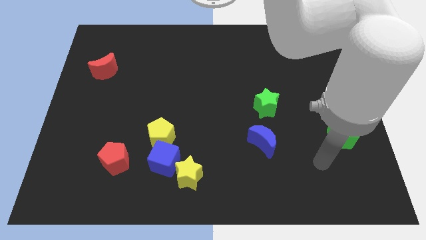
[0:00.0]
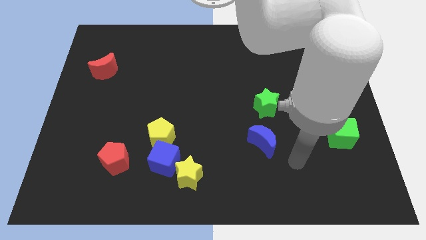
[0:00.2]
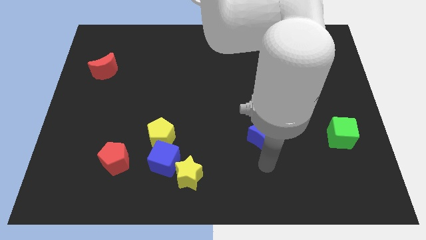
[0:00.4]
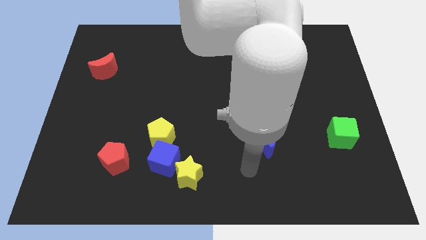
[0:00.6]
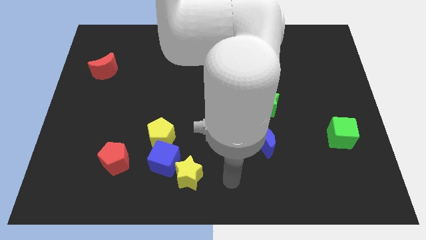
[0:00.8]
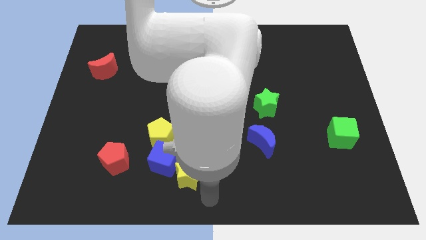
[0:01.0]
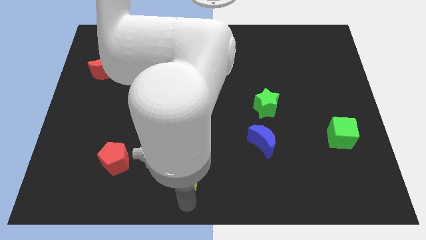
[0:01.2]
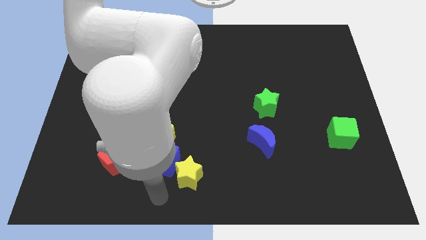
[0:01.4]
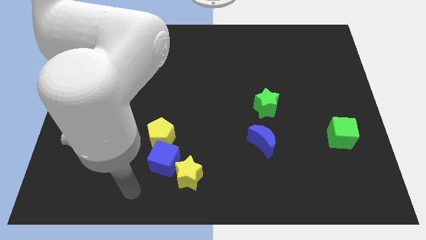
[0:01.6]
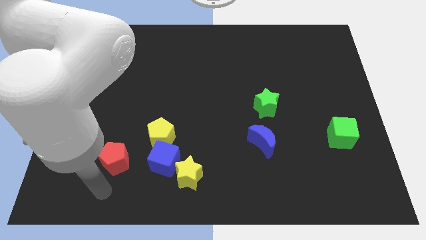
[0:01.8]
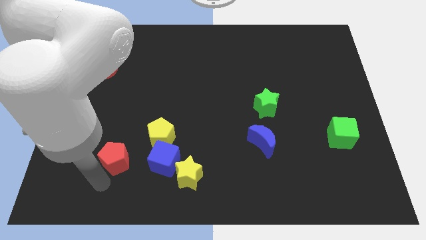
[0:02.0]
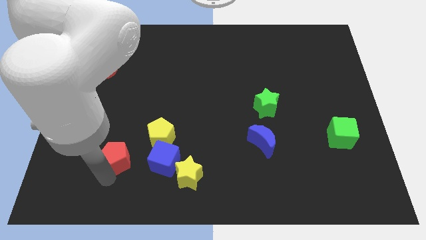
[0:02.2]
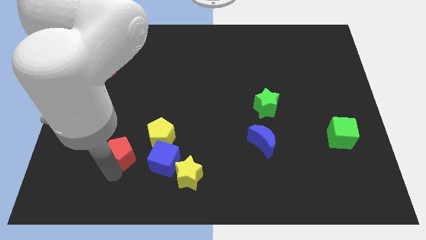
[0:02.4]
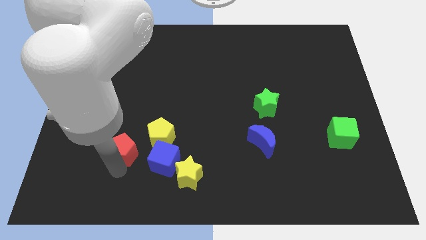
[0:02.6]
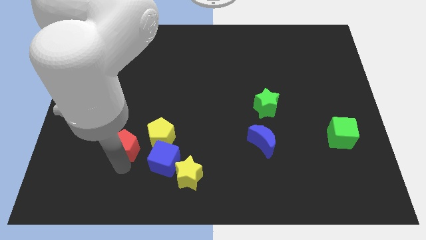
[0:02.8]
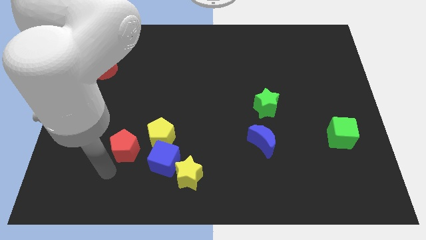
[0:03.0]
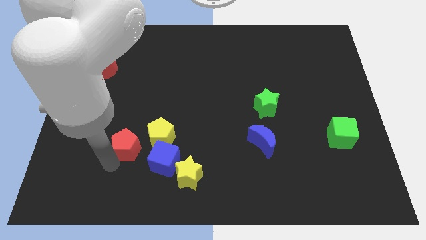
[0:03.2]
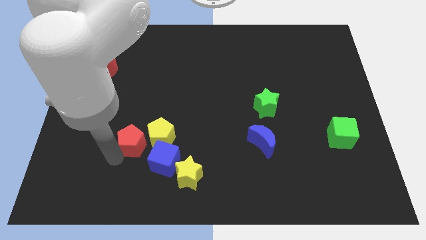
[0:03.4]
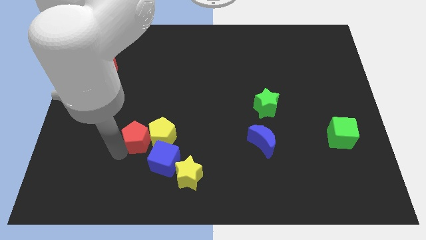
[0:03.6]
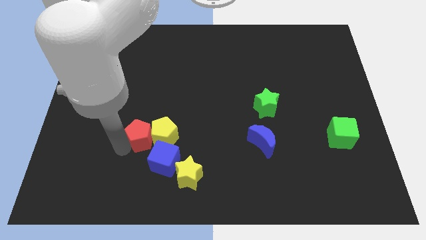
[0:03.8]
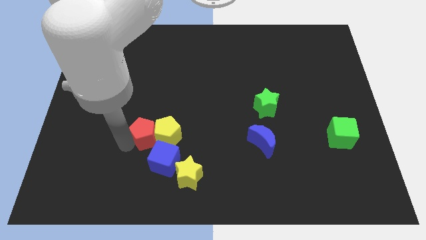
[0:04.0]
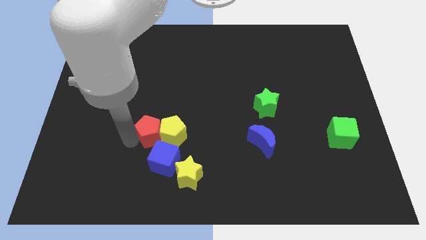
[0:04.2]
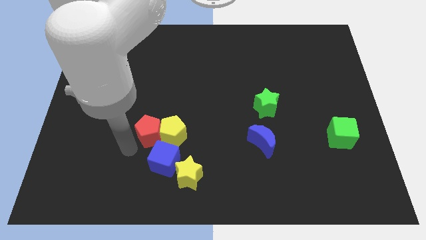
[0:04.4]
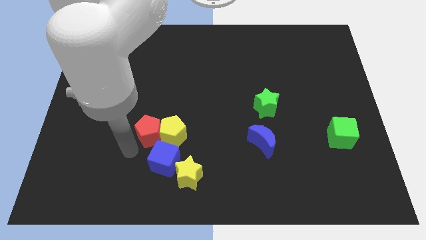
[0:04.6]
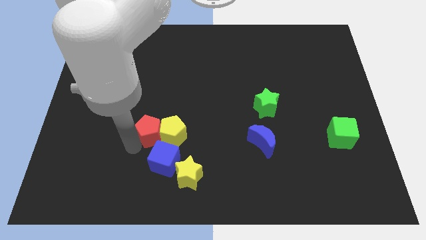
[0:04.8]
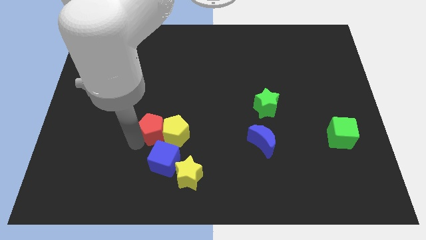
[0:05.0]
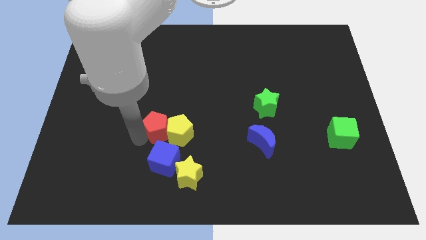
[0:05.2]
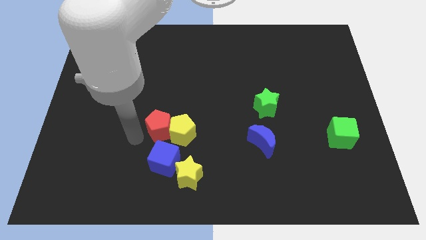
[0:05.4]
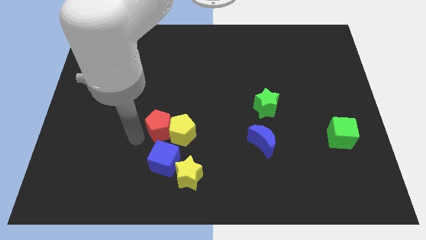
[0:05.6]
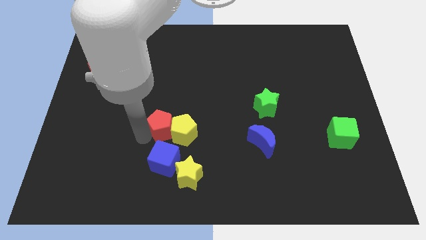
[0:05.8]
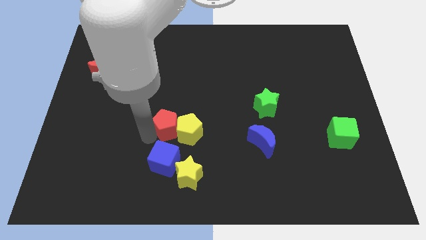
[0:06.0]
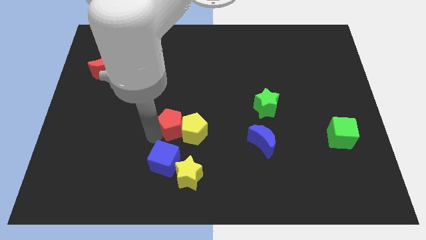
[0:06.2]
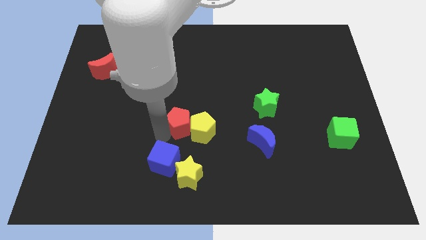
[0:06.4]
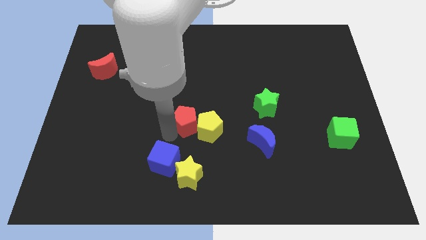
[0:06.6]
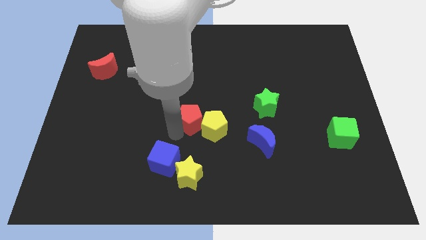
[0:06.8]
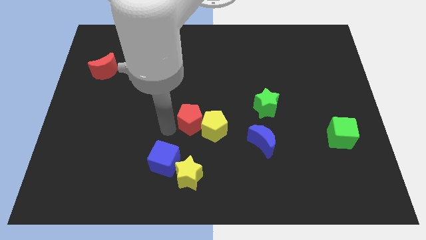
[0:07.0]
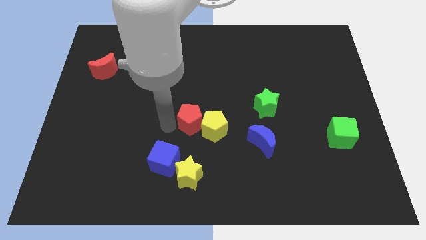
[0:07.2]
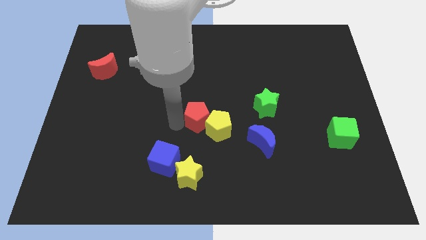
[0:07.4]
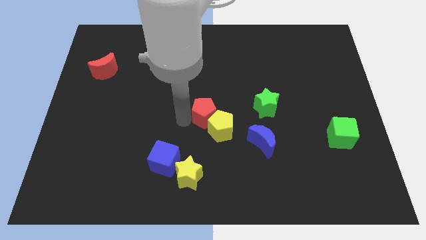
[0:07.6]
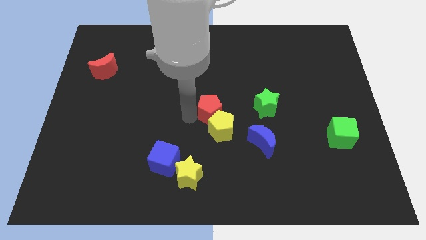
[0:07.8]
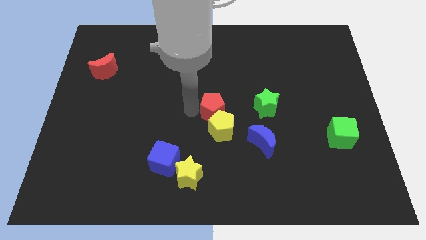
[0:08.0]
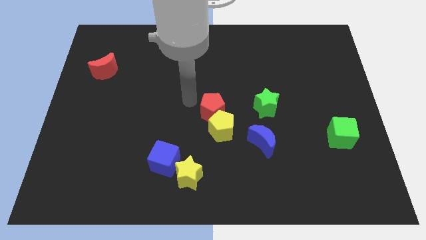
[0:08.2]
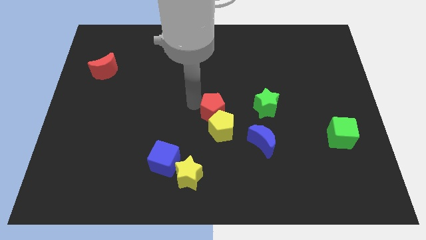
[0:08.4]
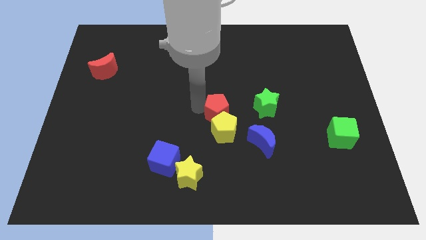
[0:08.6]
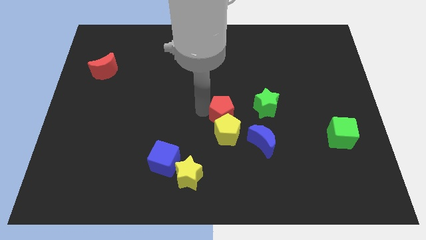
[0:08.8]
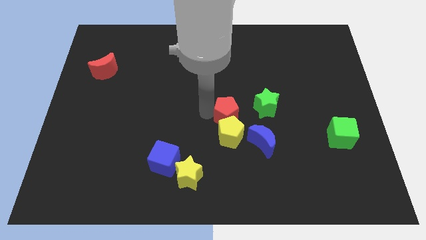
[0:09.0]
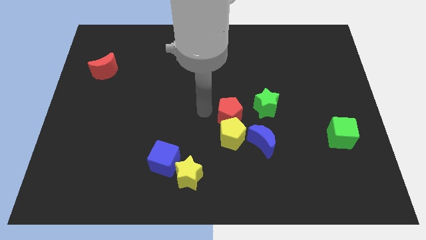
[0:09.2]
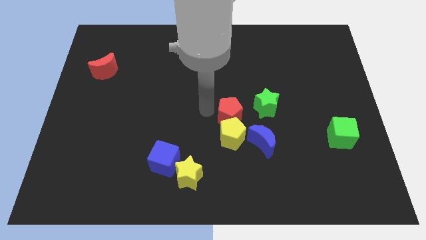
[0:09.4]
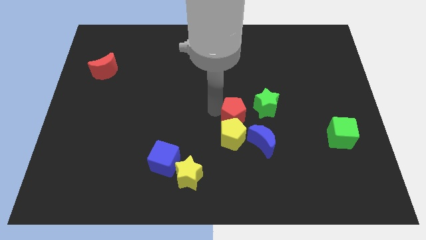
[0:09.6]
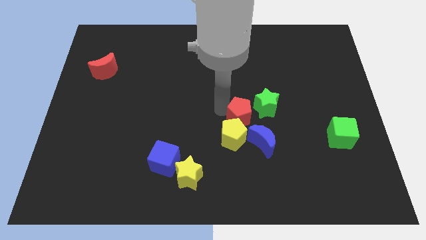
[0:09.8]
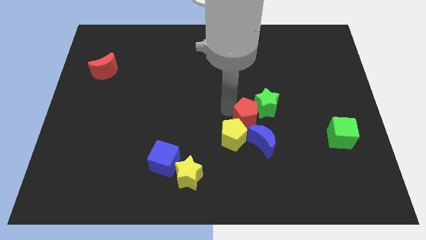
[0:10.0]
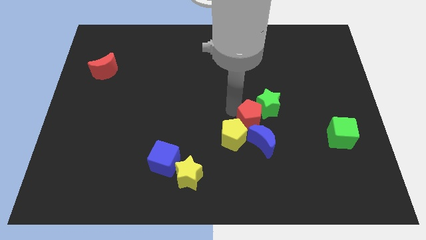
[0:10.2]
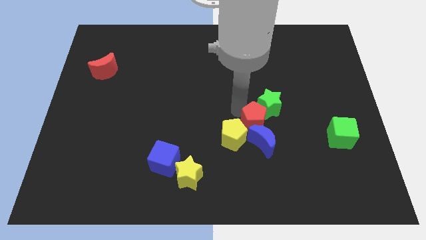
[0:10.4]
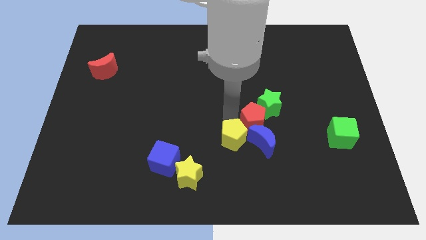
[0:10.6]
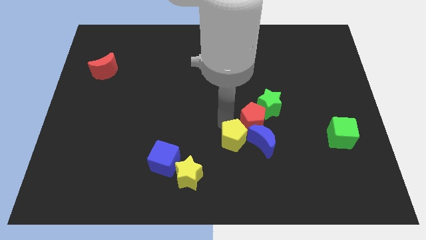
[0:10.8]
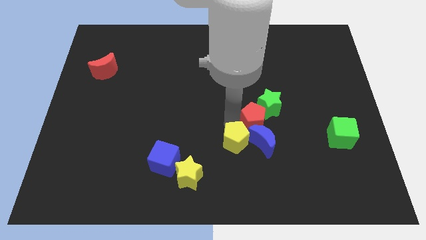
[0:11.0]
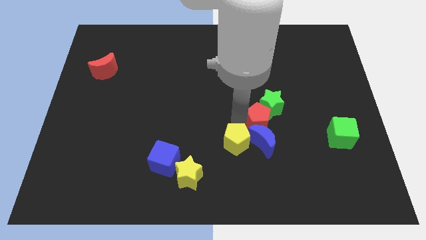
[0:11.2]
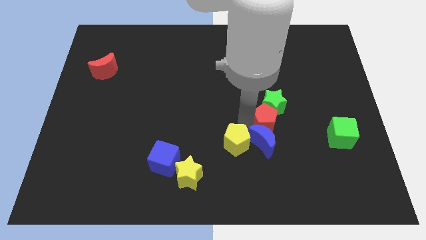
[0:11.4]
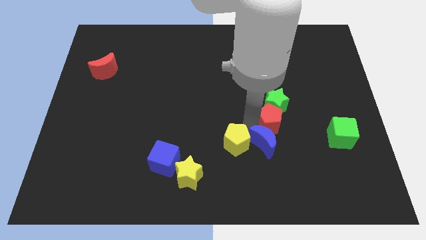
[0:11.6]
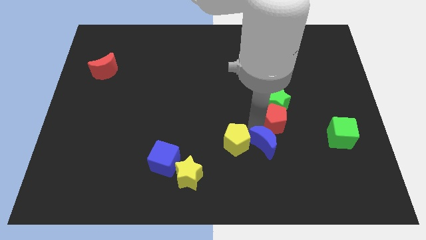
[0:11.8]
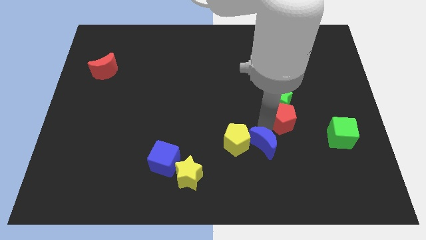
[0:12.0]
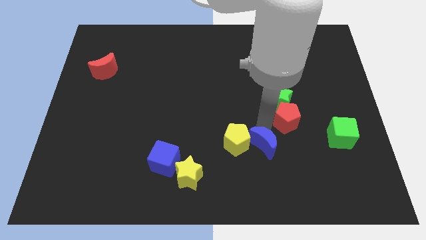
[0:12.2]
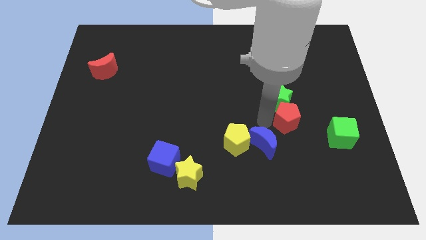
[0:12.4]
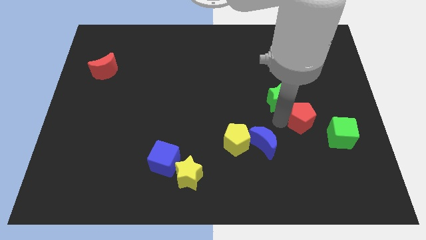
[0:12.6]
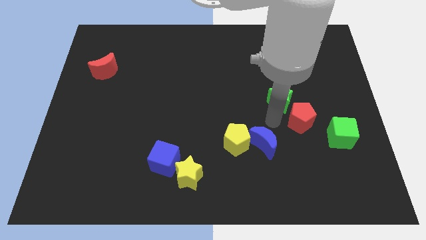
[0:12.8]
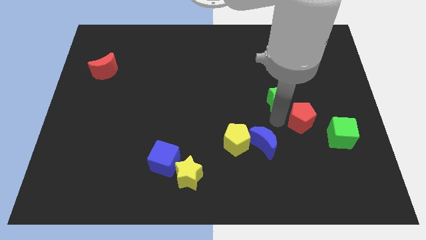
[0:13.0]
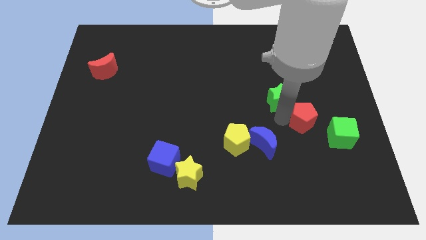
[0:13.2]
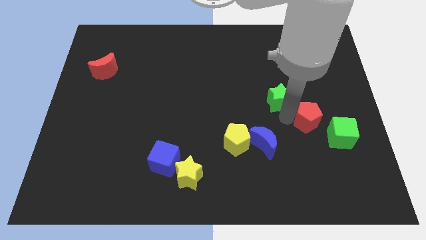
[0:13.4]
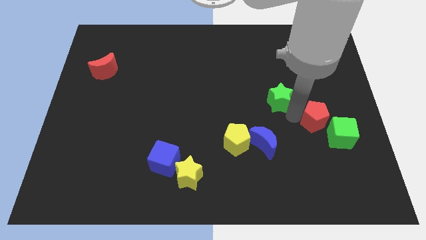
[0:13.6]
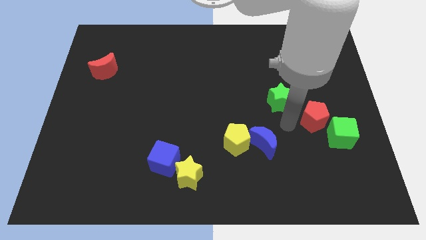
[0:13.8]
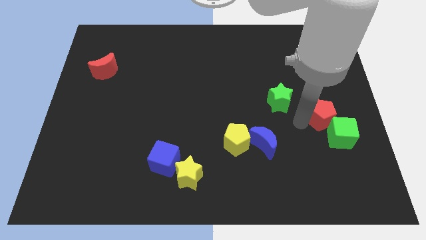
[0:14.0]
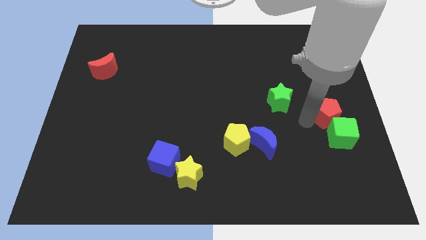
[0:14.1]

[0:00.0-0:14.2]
slide the red pentagon to the center right

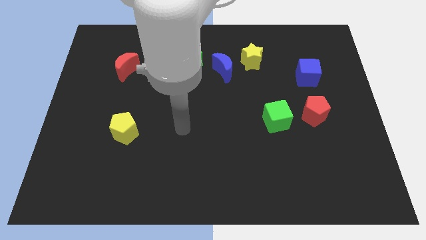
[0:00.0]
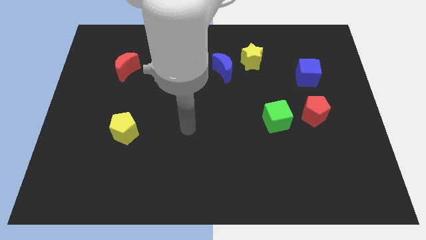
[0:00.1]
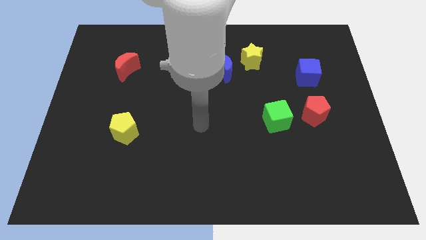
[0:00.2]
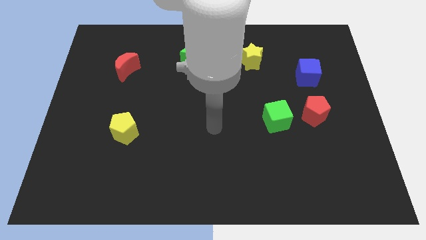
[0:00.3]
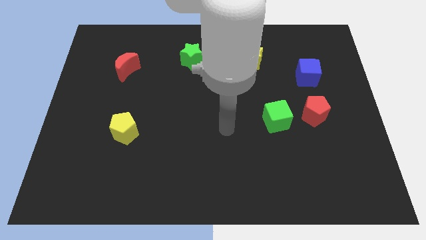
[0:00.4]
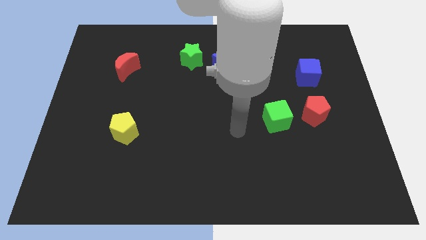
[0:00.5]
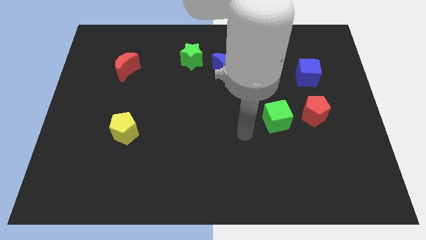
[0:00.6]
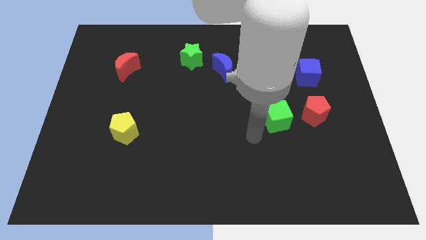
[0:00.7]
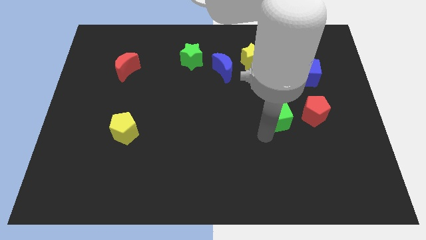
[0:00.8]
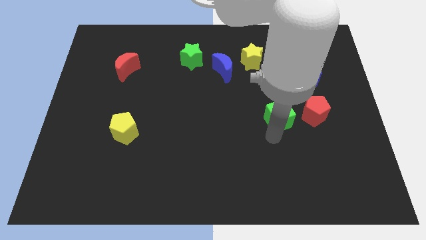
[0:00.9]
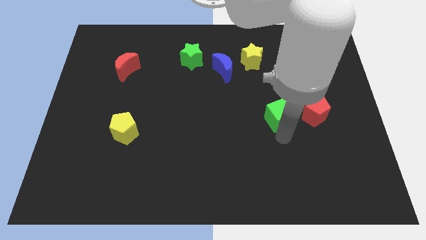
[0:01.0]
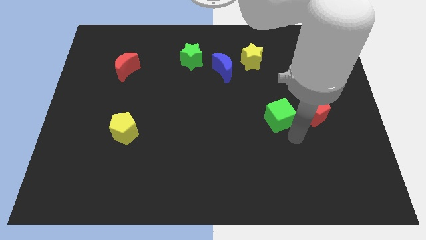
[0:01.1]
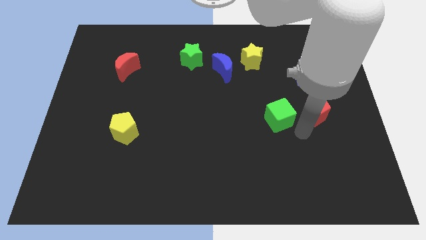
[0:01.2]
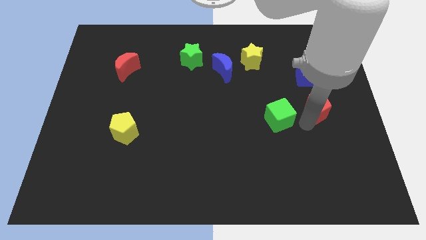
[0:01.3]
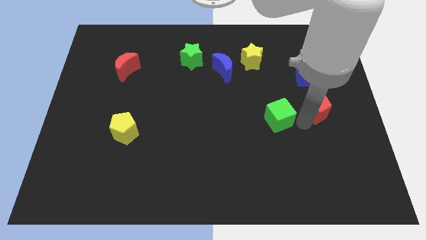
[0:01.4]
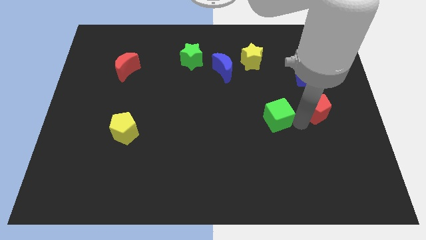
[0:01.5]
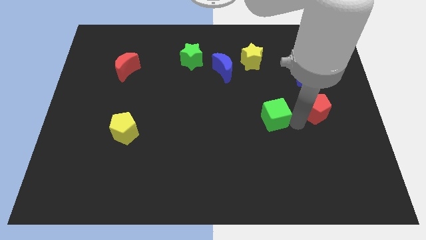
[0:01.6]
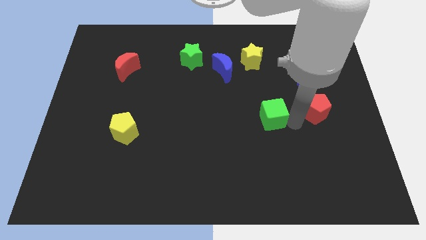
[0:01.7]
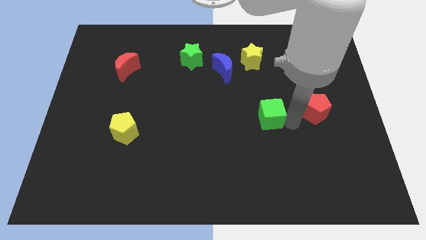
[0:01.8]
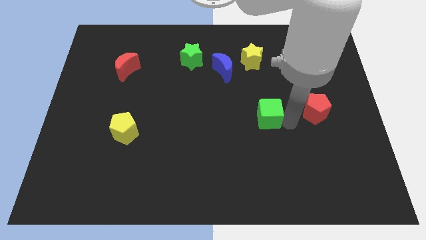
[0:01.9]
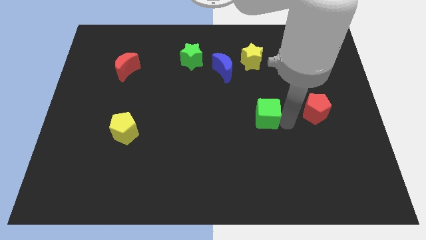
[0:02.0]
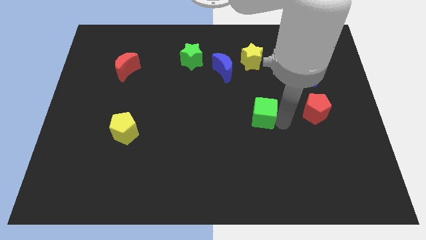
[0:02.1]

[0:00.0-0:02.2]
put the green cube to the middle of the board
